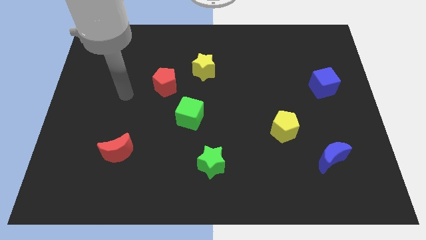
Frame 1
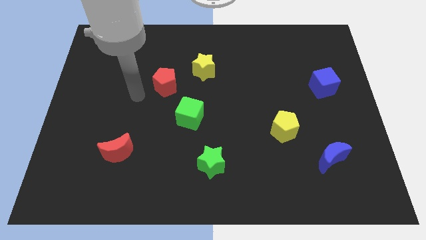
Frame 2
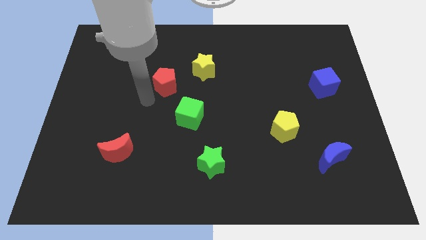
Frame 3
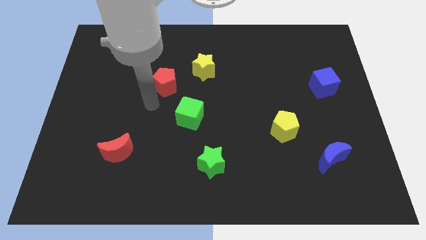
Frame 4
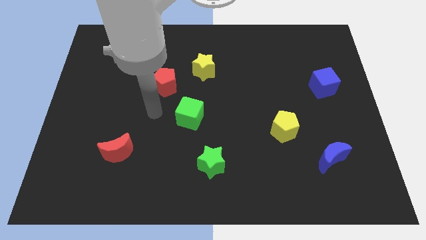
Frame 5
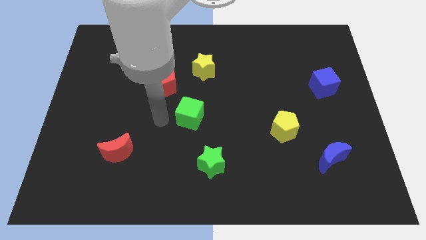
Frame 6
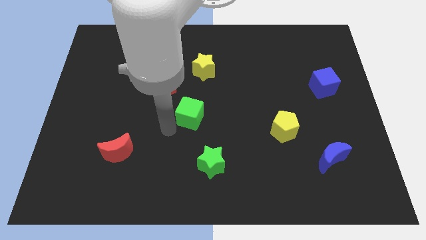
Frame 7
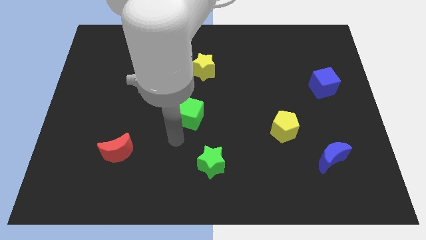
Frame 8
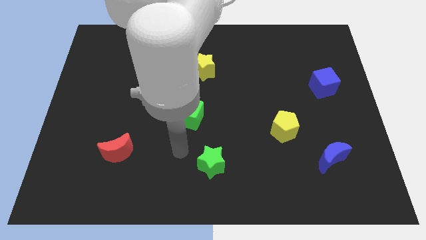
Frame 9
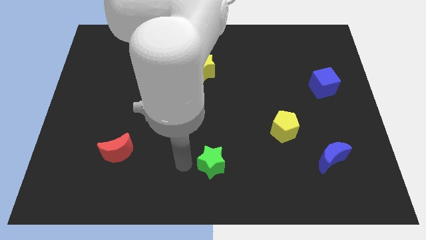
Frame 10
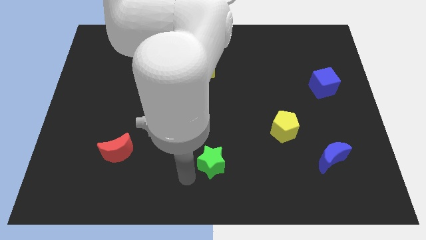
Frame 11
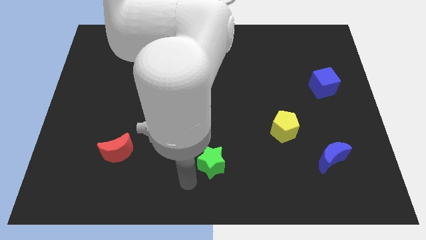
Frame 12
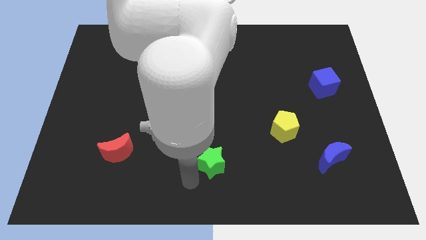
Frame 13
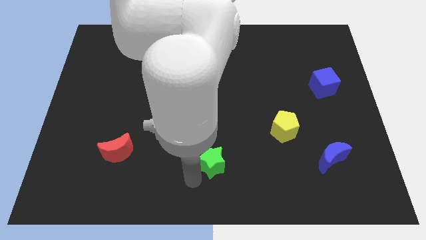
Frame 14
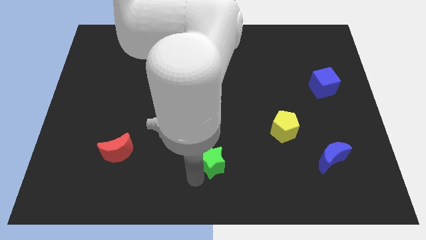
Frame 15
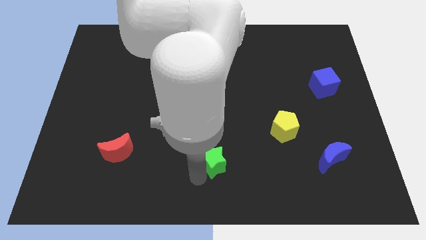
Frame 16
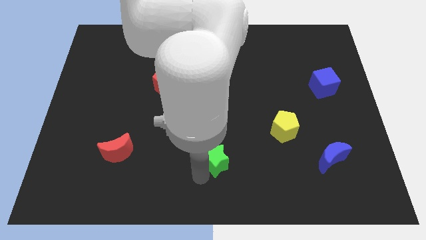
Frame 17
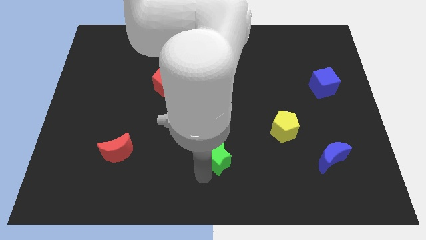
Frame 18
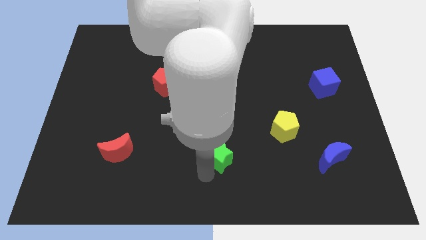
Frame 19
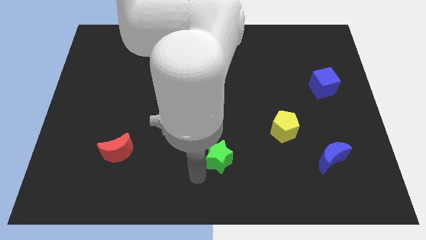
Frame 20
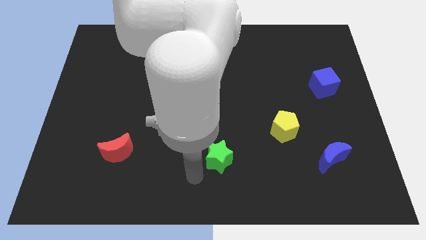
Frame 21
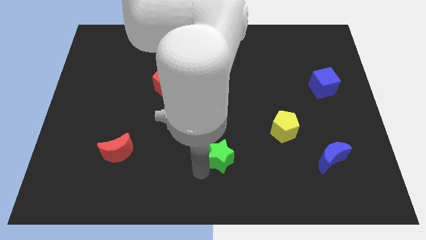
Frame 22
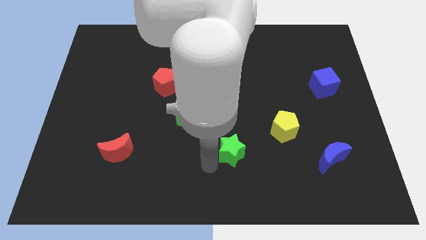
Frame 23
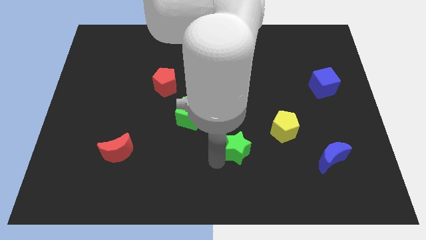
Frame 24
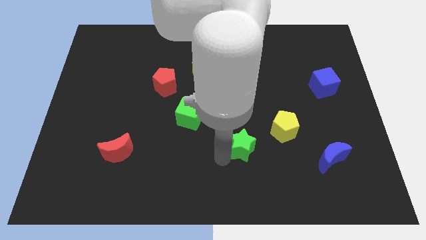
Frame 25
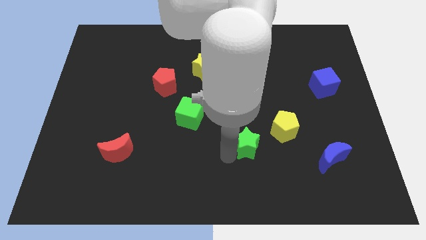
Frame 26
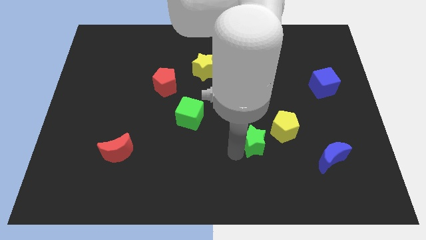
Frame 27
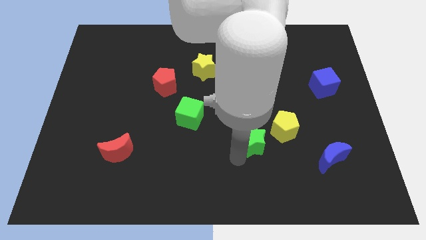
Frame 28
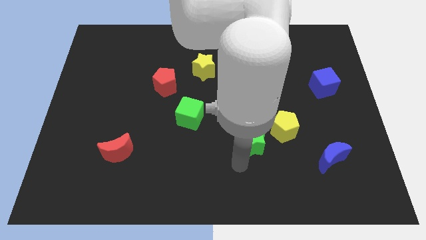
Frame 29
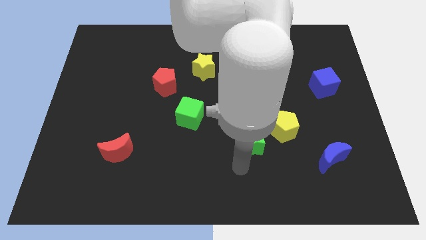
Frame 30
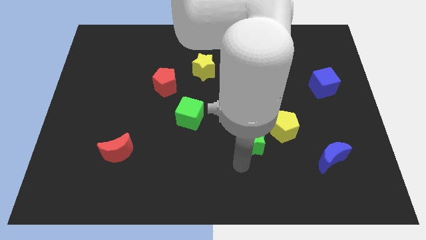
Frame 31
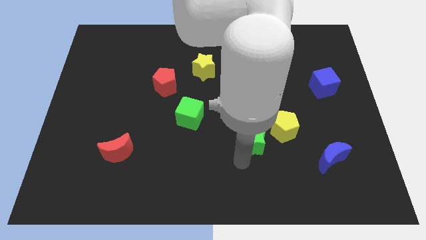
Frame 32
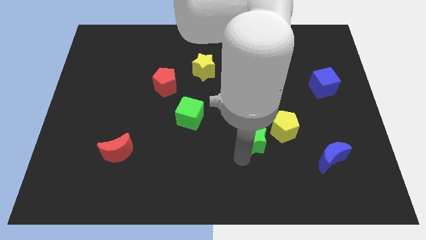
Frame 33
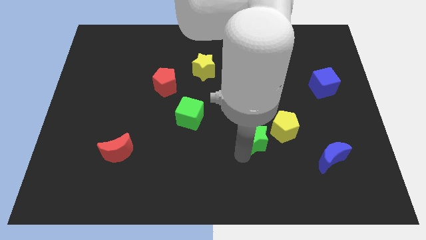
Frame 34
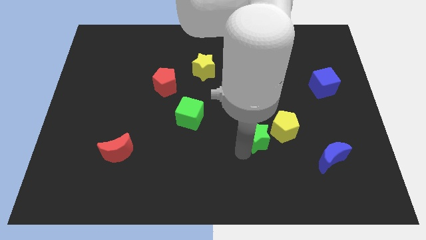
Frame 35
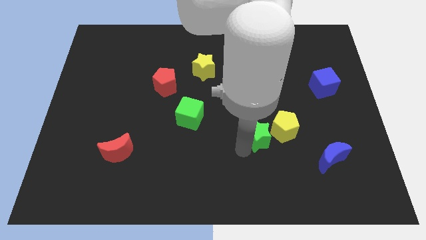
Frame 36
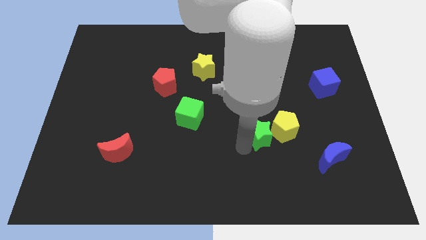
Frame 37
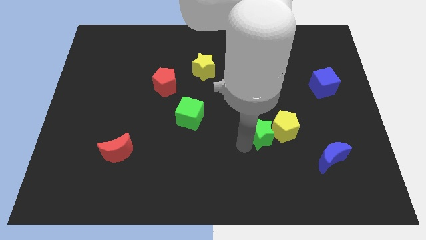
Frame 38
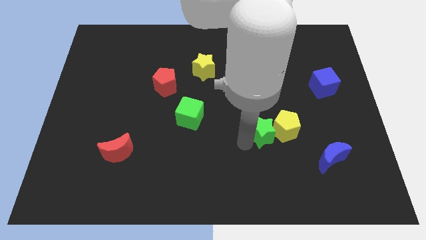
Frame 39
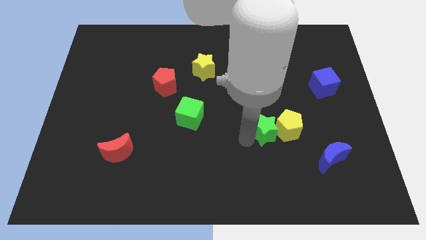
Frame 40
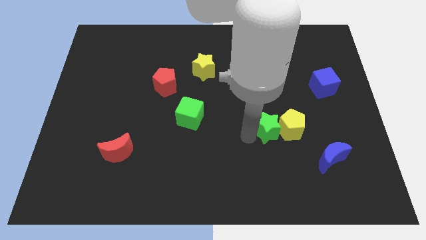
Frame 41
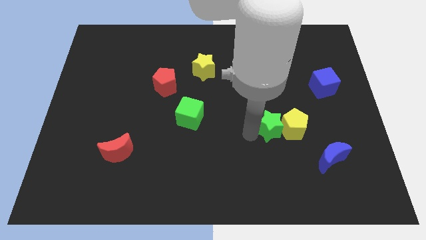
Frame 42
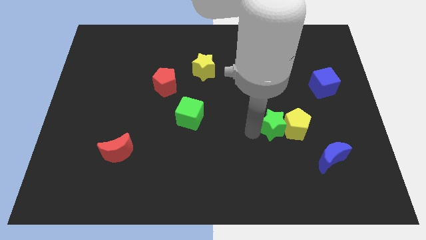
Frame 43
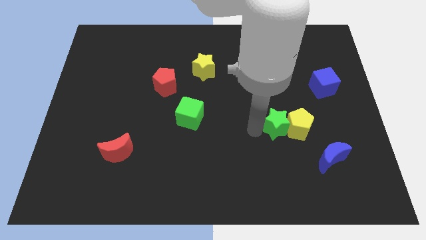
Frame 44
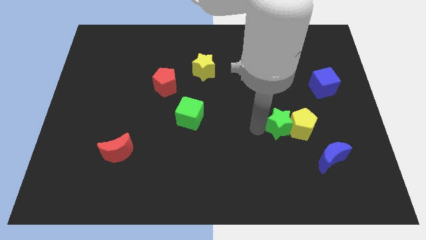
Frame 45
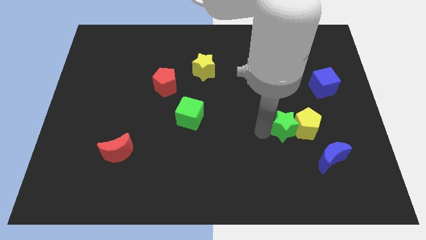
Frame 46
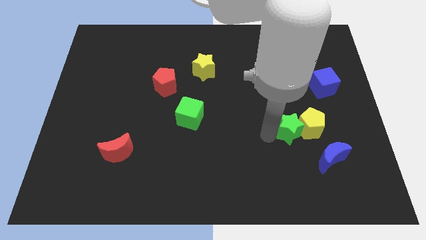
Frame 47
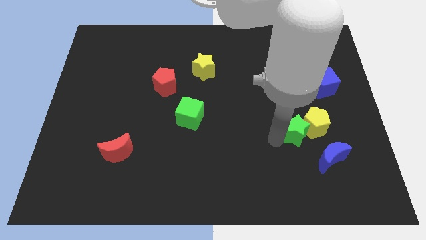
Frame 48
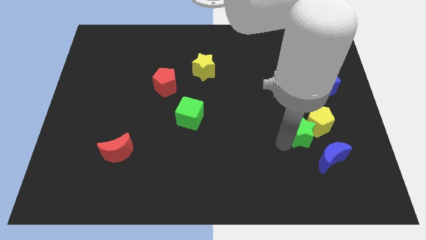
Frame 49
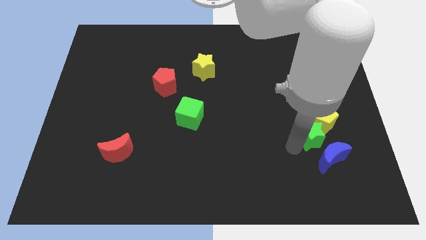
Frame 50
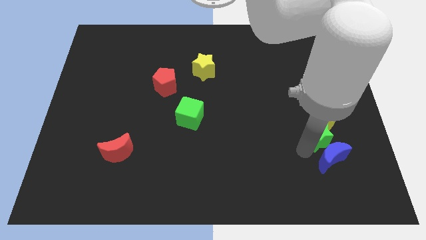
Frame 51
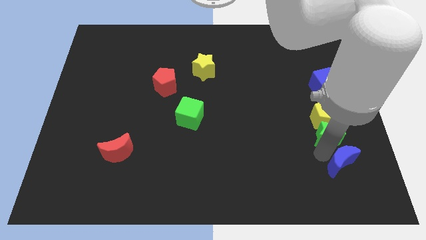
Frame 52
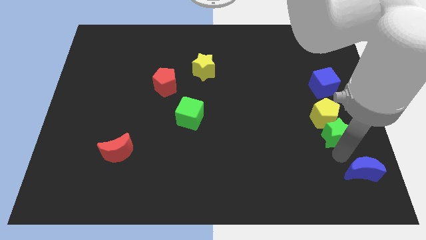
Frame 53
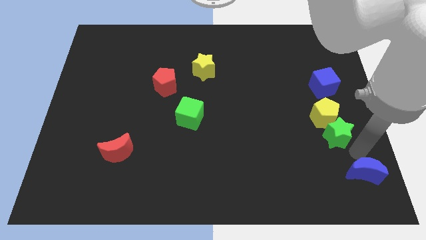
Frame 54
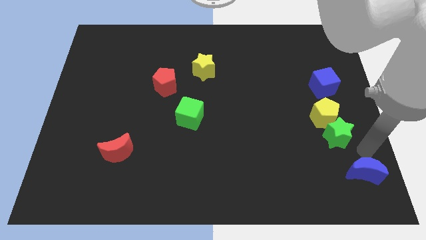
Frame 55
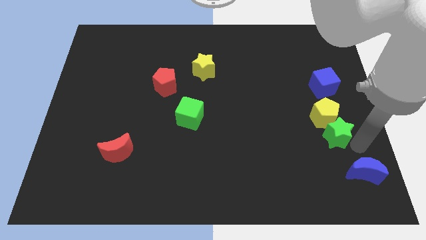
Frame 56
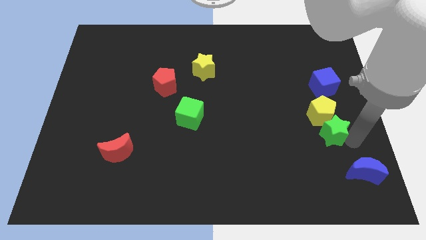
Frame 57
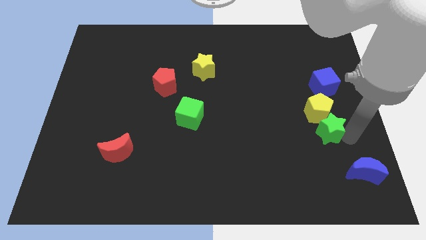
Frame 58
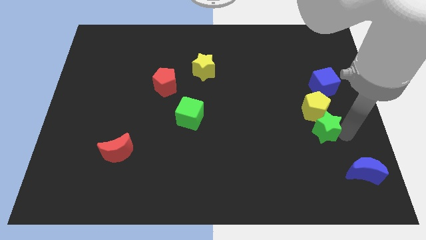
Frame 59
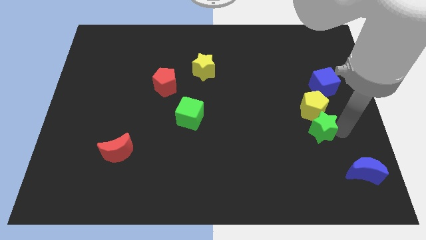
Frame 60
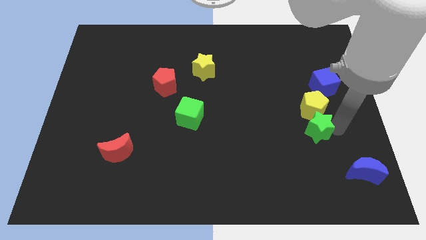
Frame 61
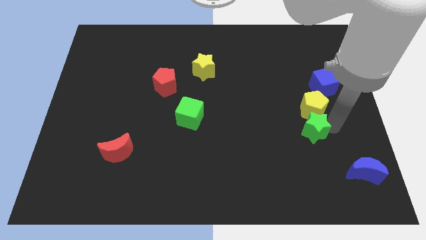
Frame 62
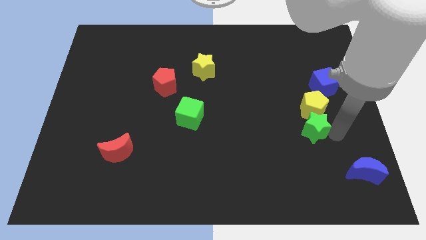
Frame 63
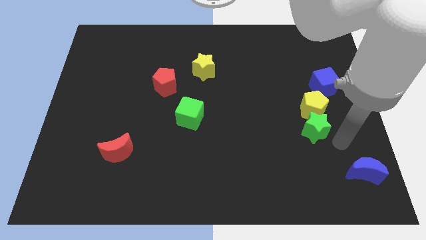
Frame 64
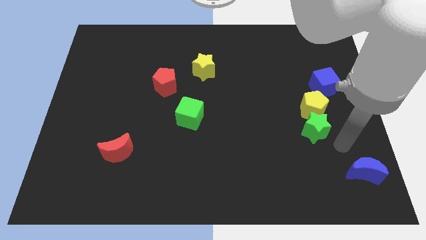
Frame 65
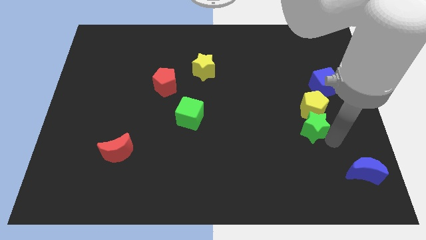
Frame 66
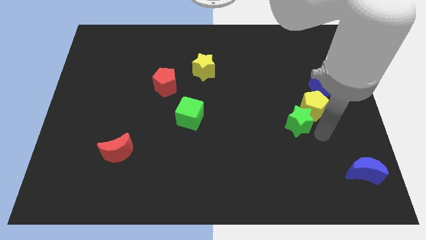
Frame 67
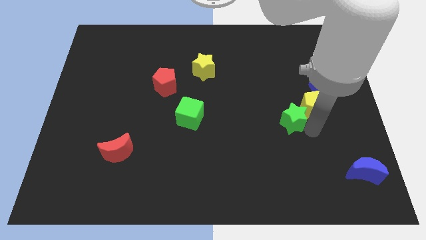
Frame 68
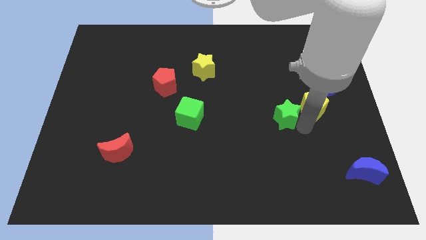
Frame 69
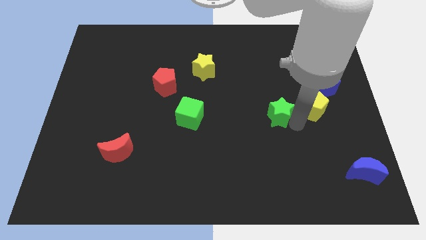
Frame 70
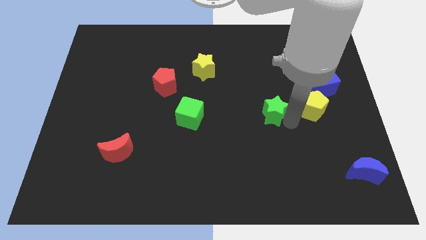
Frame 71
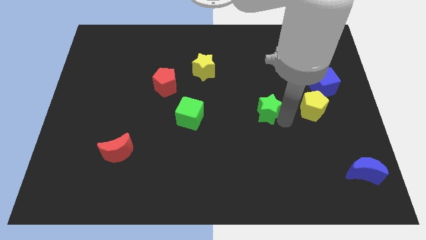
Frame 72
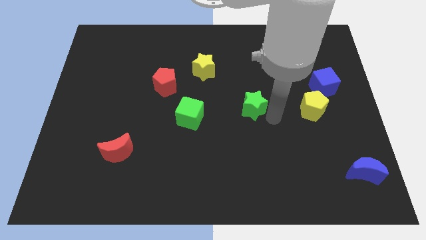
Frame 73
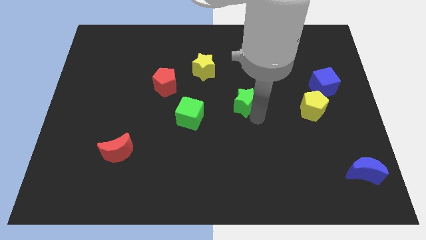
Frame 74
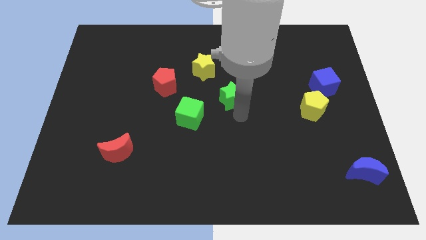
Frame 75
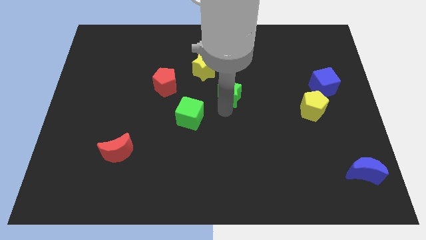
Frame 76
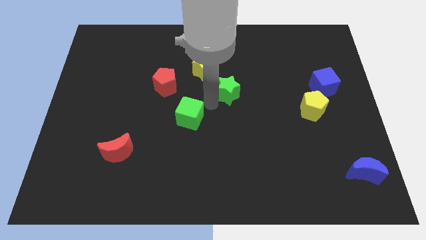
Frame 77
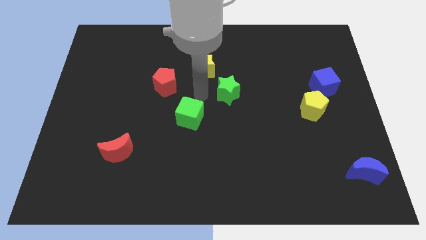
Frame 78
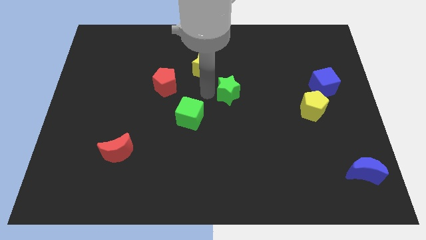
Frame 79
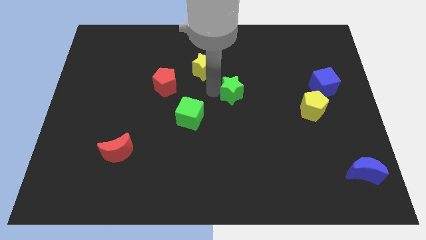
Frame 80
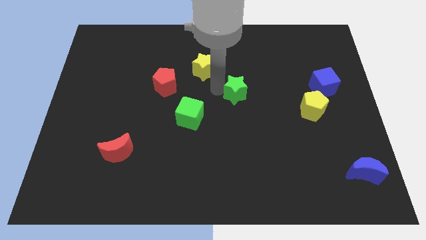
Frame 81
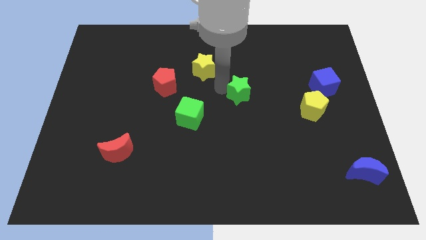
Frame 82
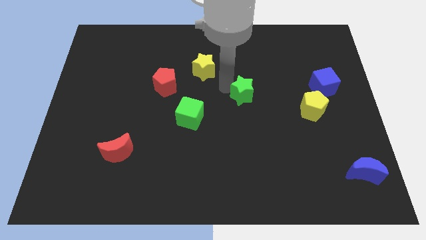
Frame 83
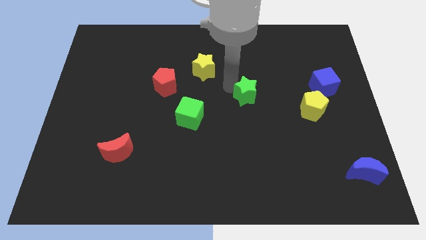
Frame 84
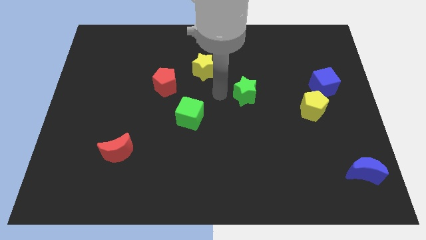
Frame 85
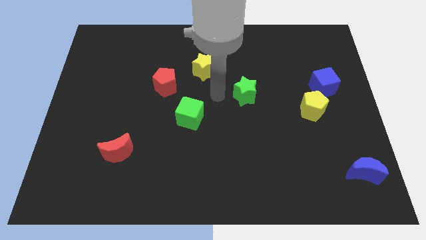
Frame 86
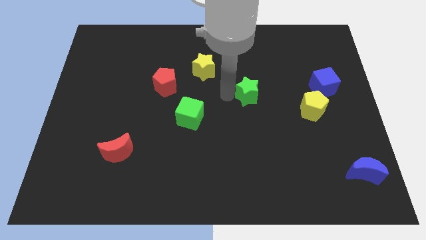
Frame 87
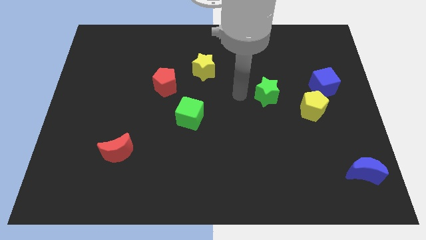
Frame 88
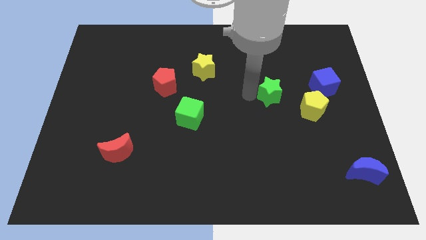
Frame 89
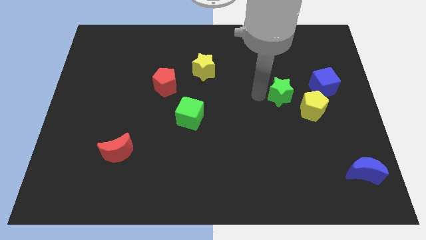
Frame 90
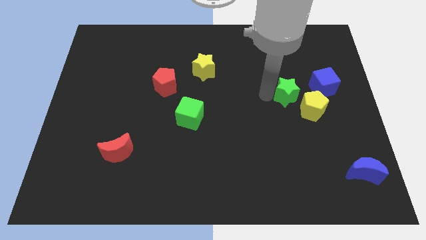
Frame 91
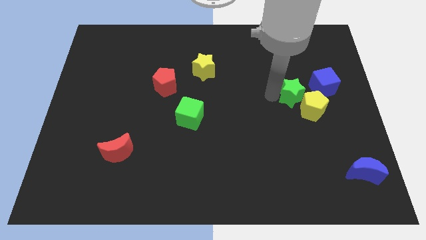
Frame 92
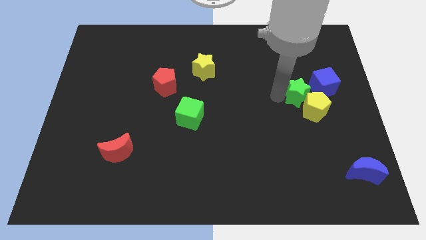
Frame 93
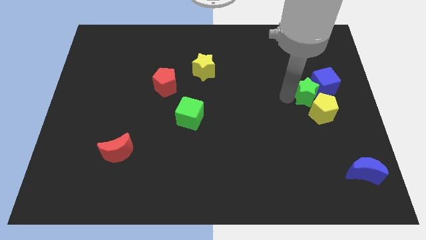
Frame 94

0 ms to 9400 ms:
slide the green star to the blue cube
